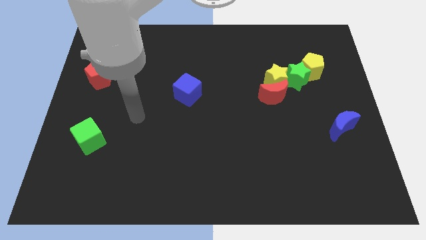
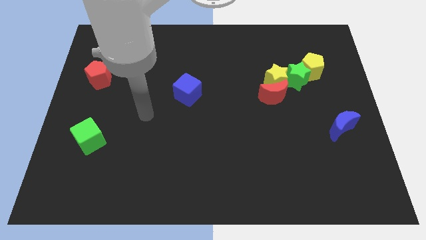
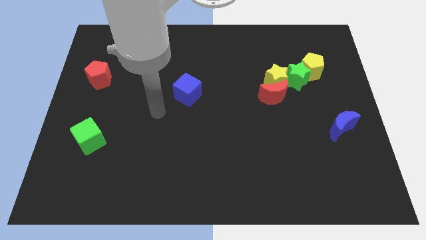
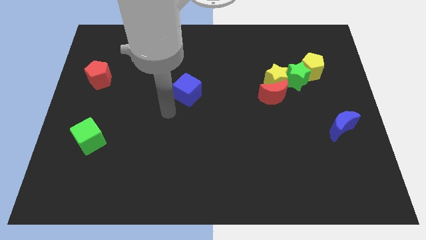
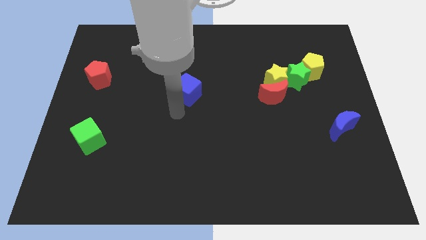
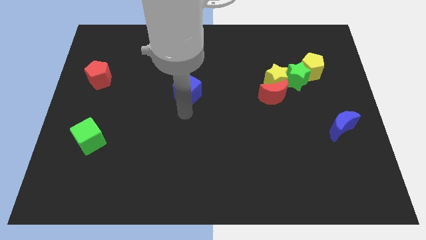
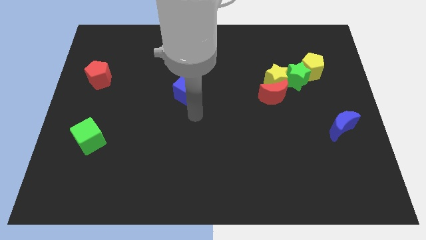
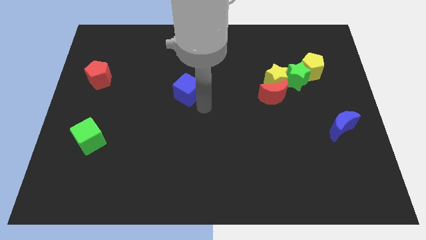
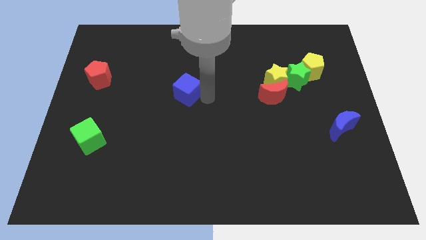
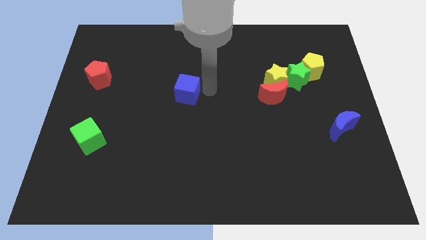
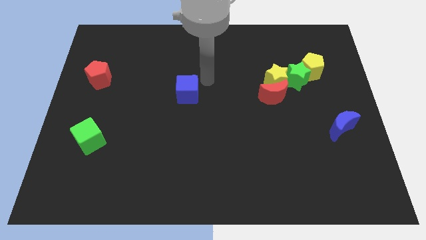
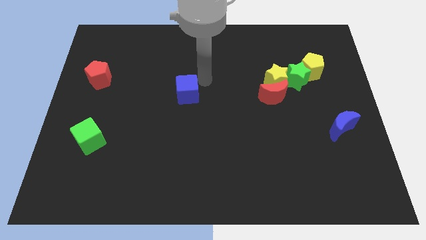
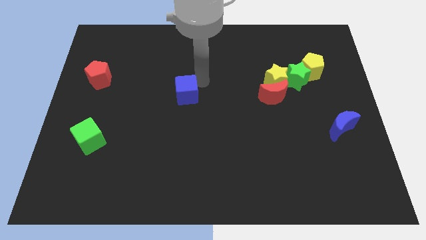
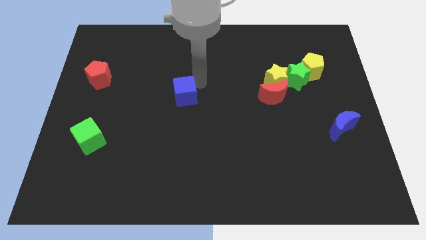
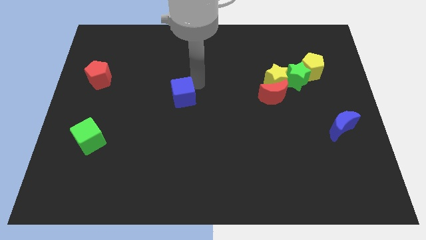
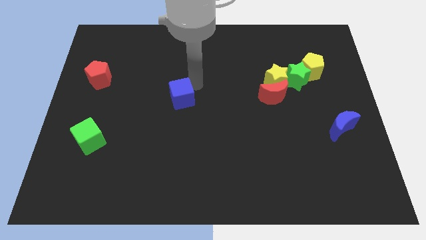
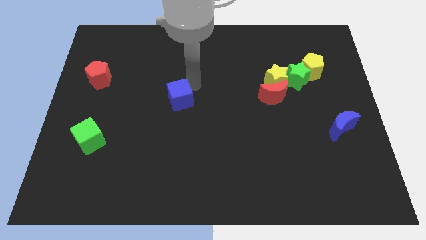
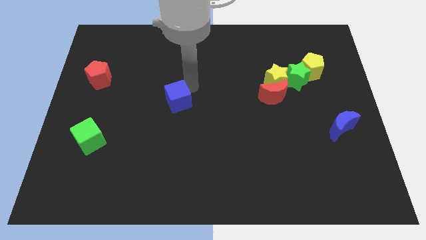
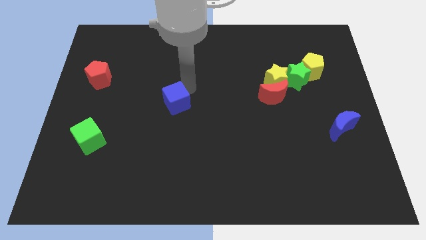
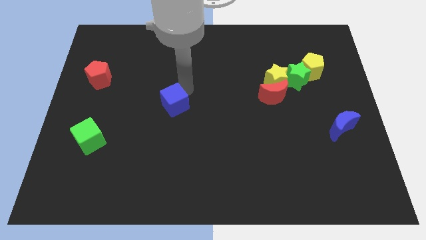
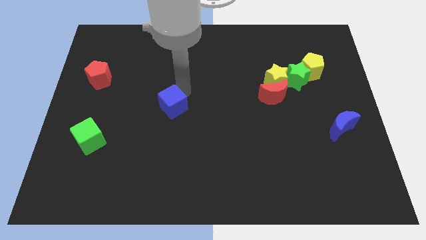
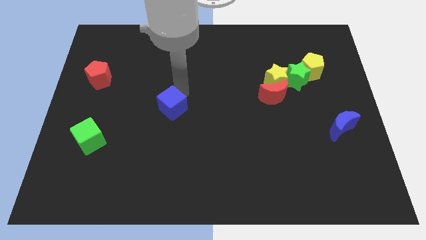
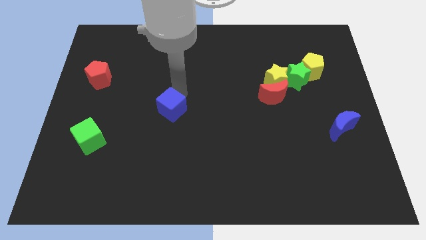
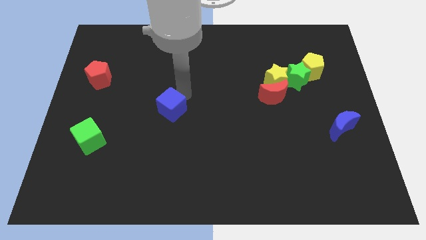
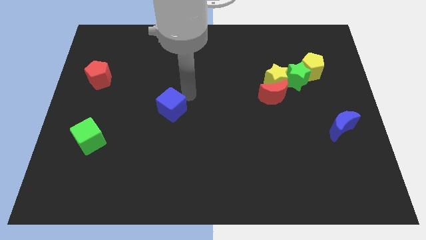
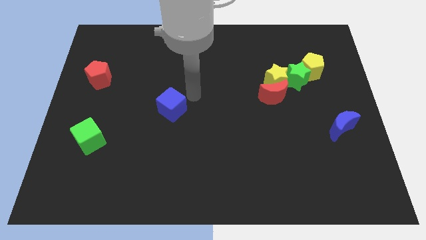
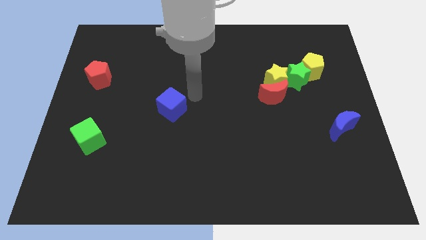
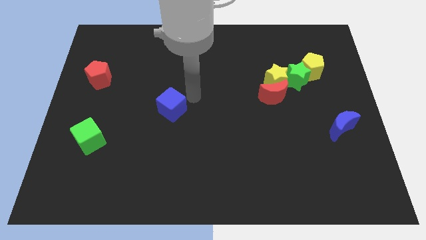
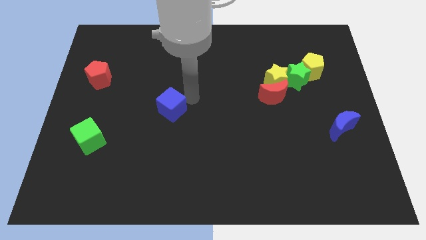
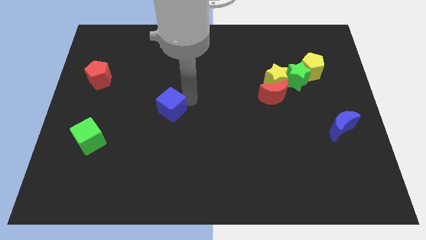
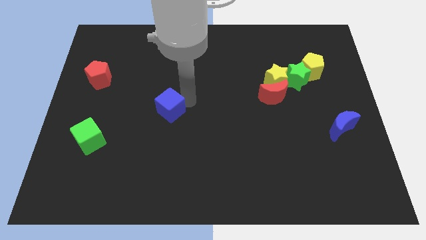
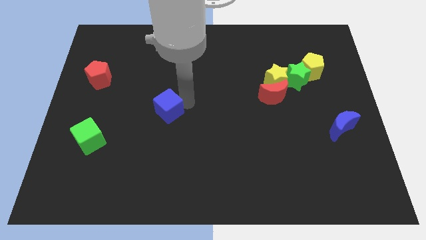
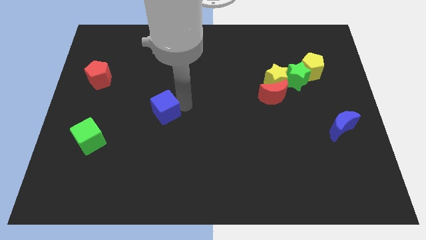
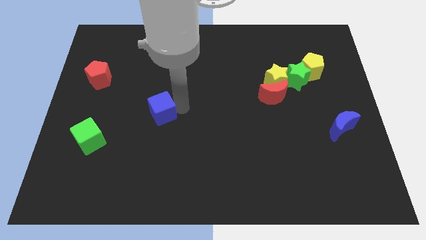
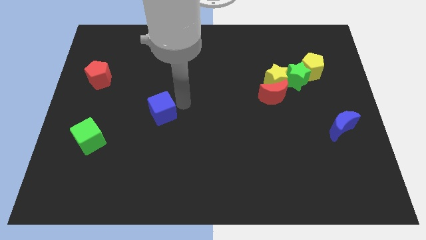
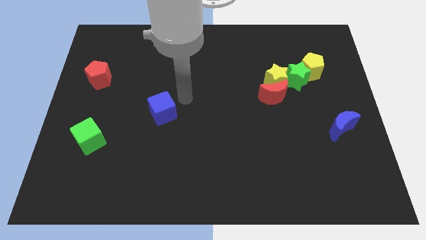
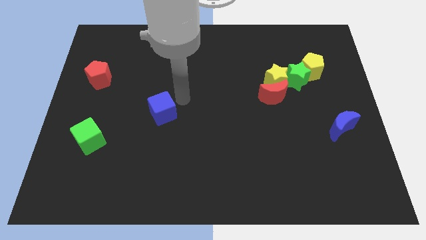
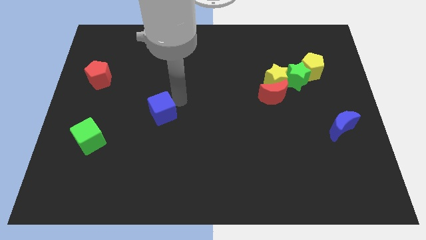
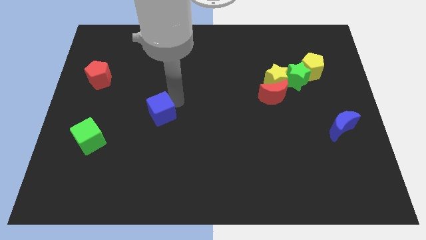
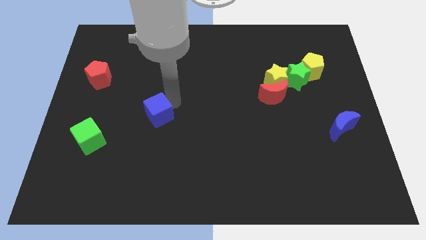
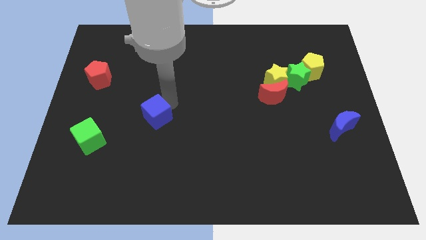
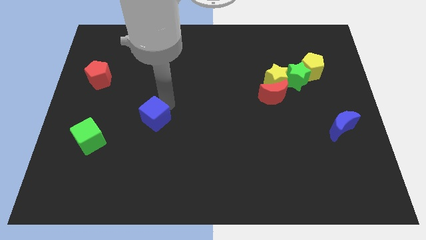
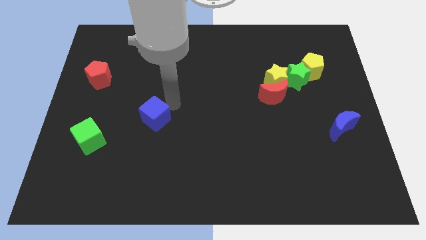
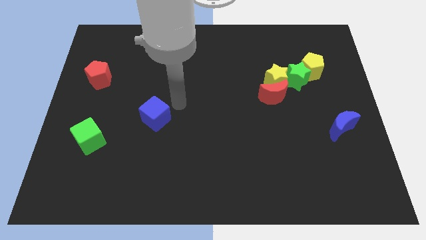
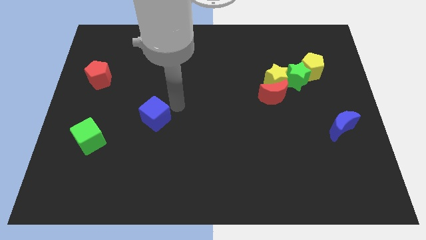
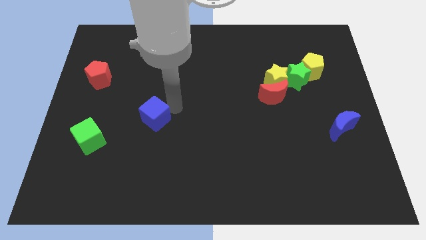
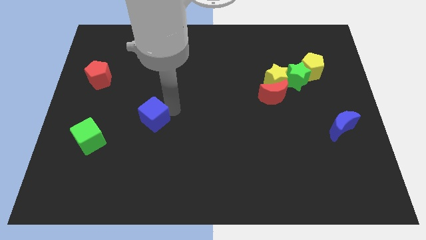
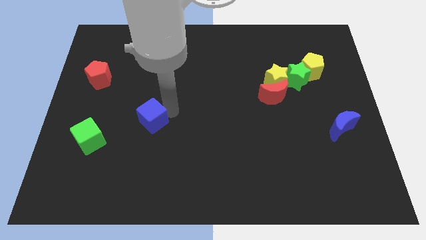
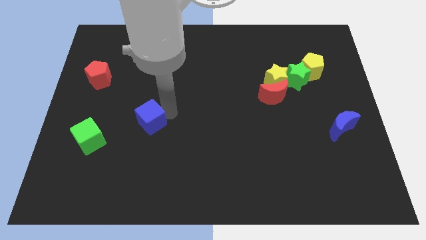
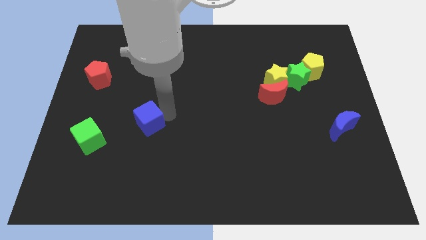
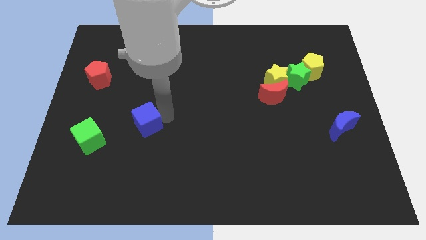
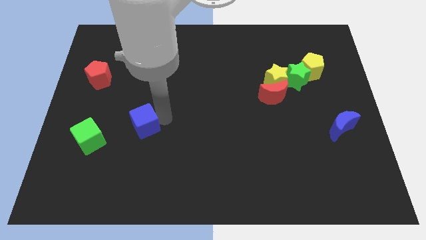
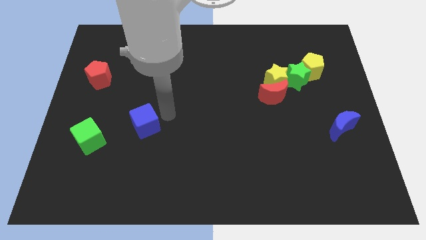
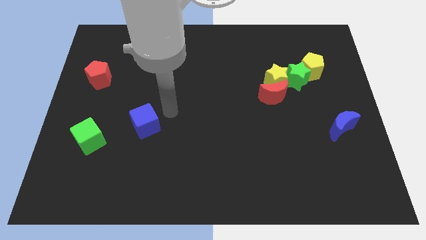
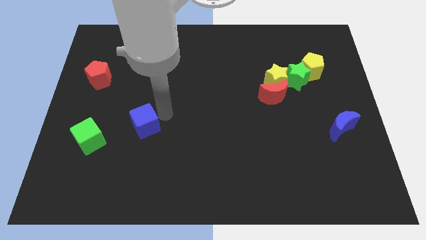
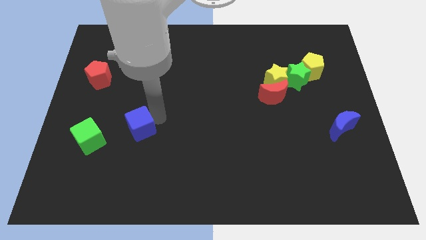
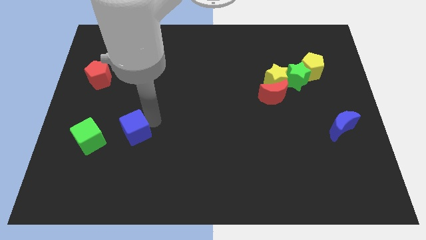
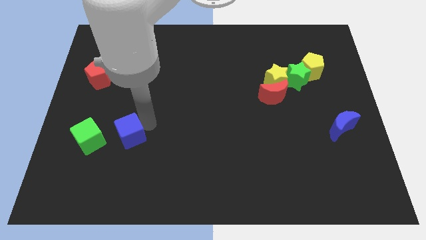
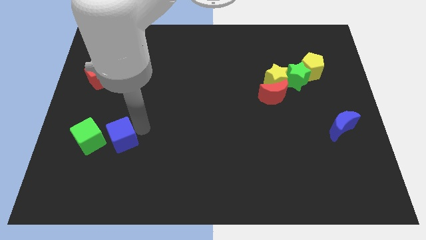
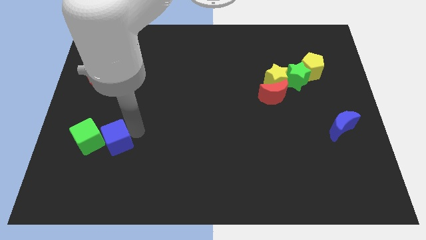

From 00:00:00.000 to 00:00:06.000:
slide the blue cube downwards and left

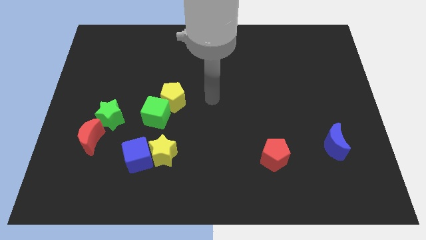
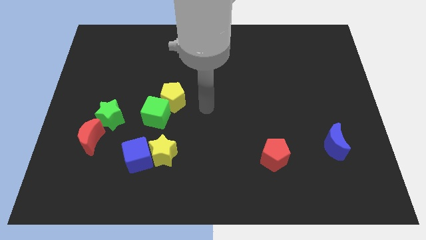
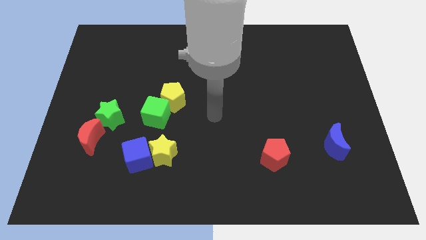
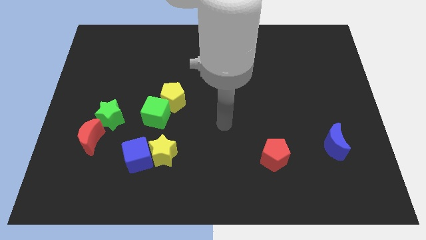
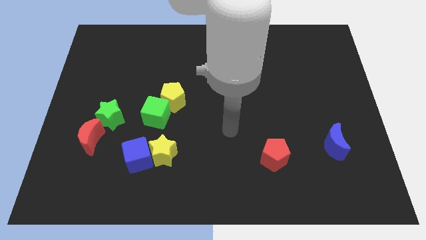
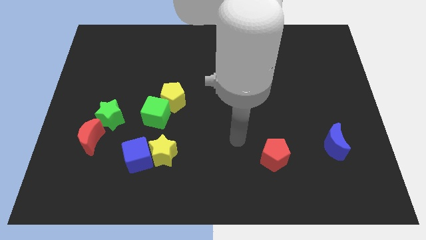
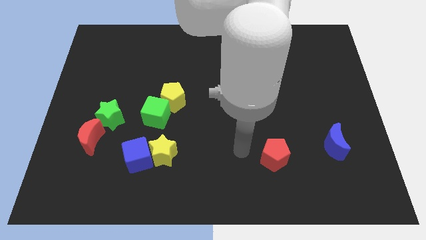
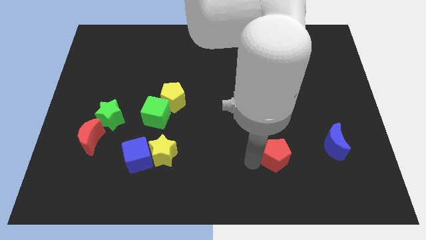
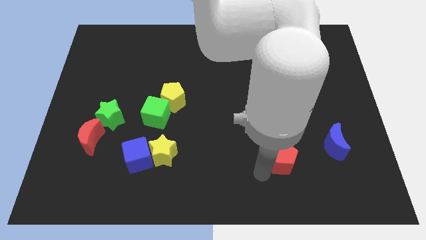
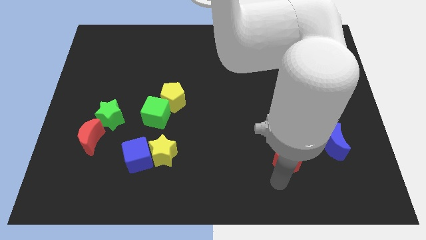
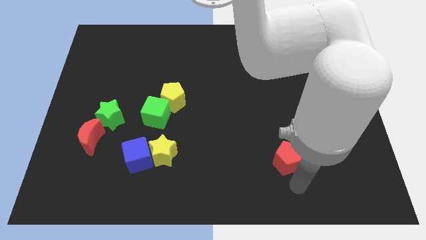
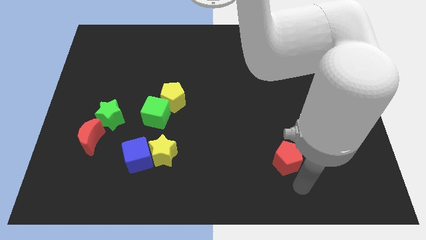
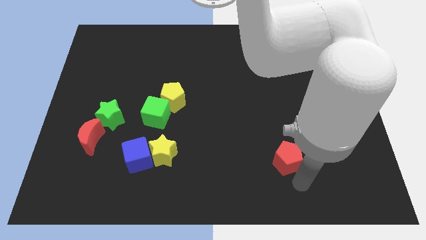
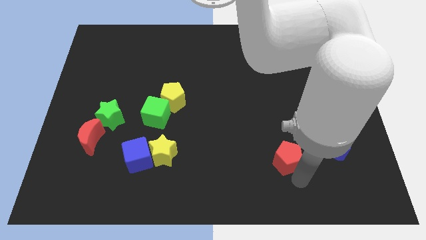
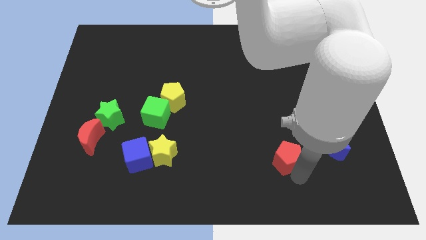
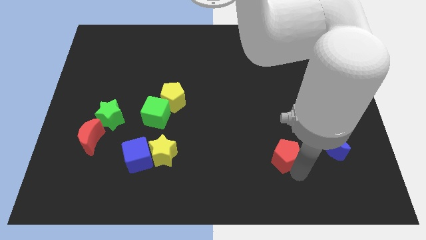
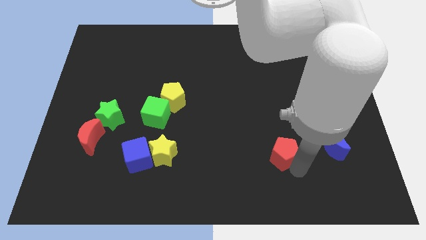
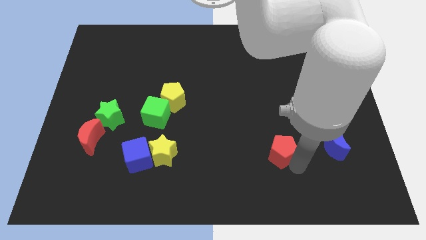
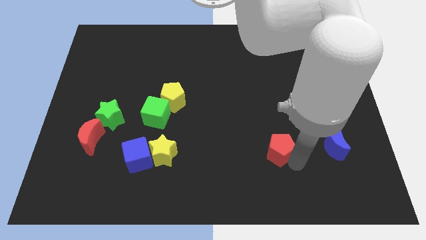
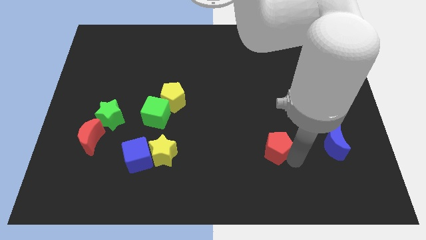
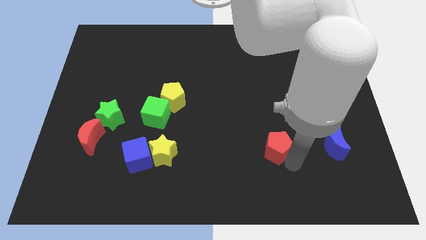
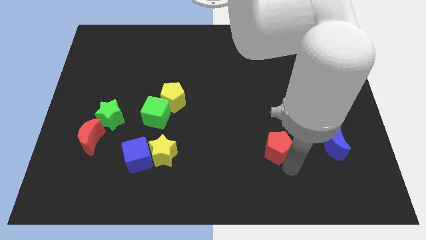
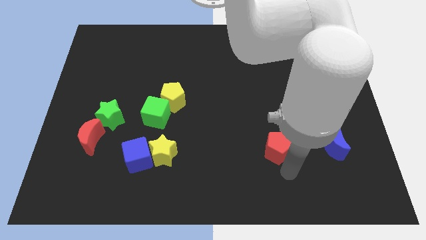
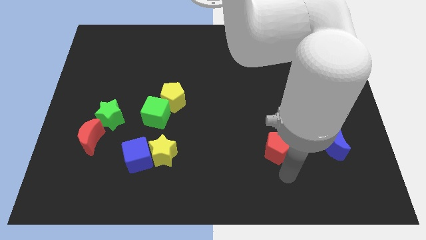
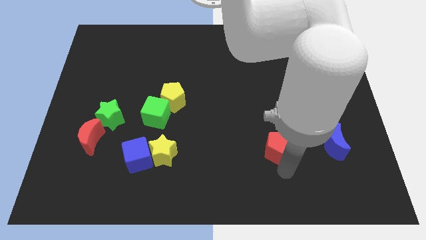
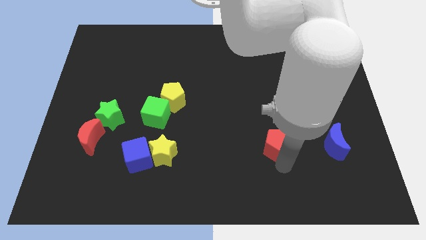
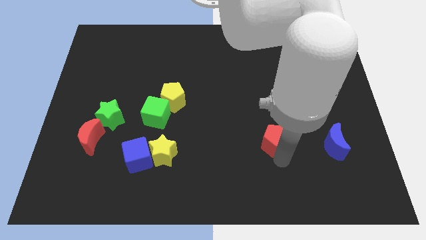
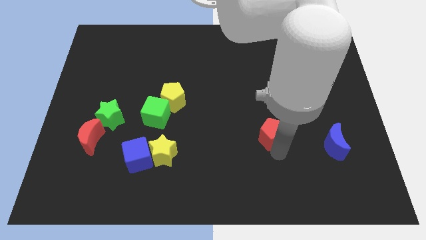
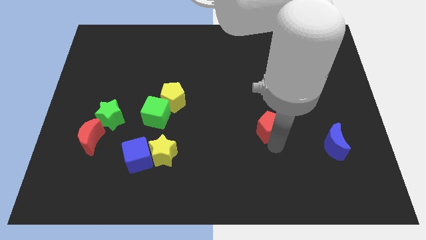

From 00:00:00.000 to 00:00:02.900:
move the red pentagon a bit upwards
